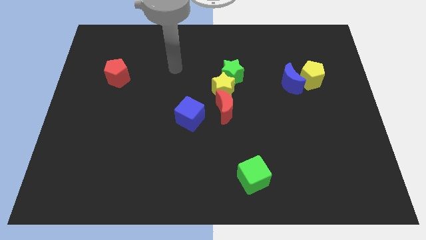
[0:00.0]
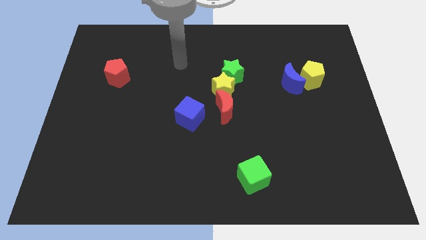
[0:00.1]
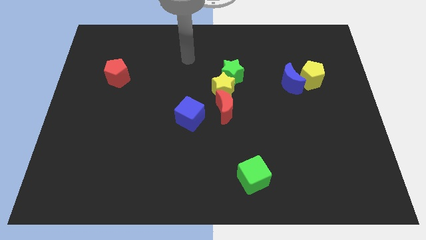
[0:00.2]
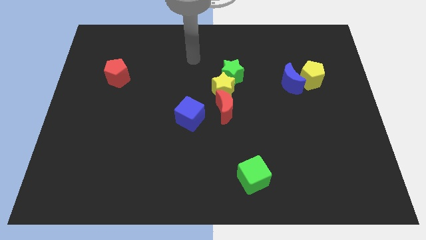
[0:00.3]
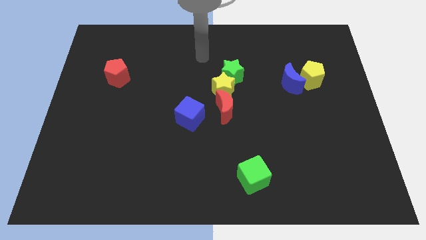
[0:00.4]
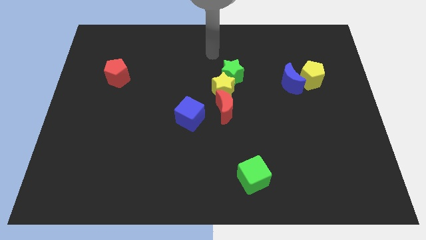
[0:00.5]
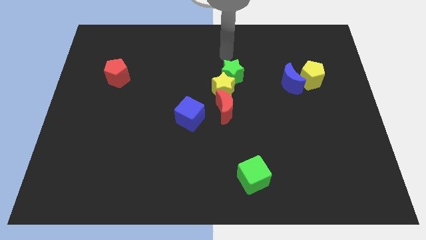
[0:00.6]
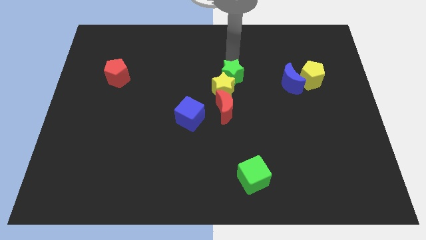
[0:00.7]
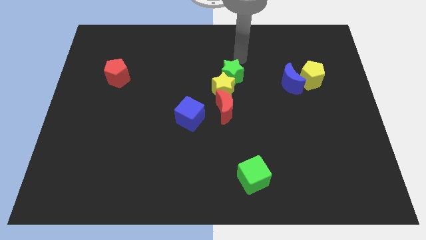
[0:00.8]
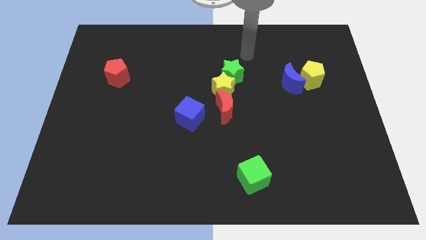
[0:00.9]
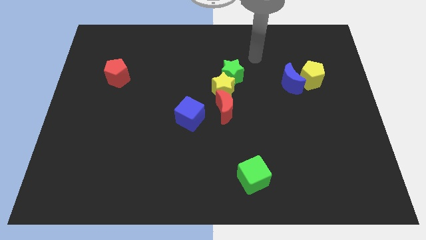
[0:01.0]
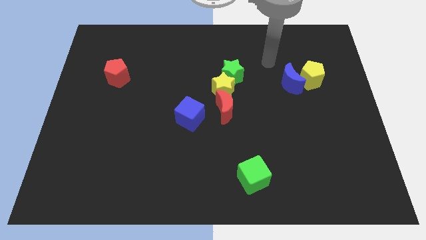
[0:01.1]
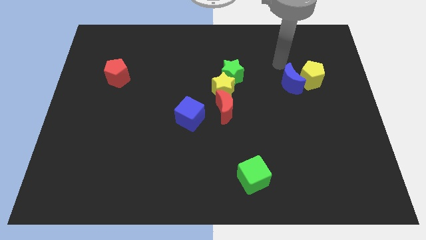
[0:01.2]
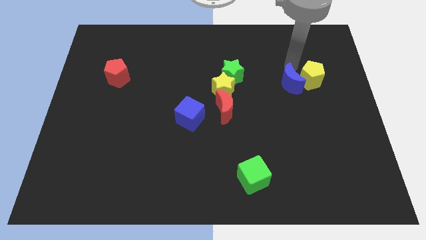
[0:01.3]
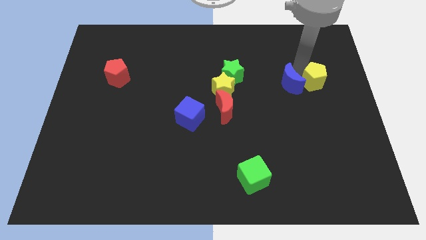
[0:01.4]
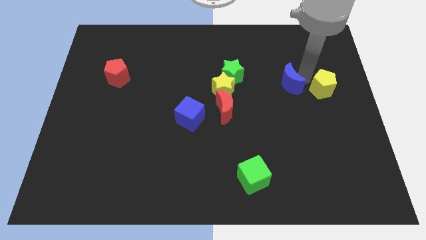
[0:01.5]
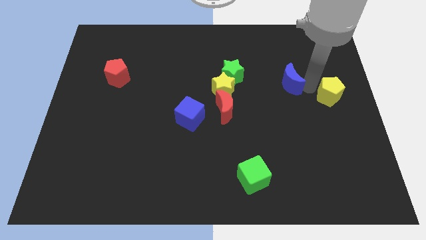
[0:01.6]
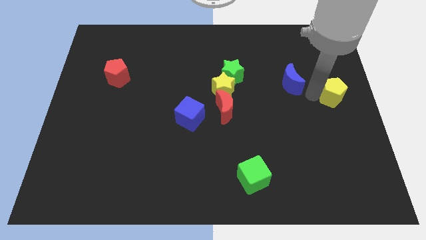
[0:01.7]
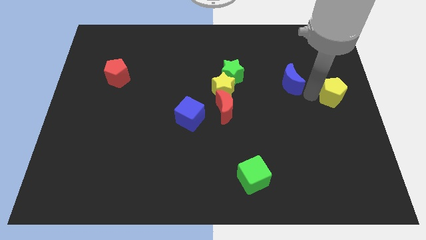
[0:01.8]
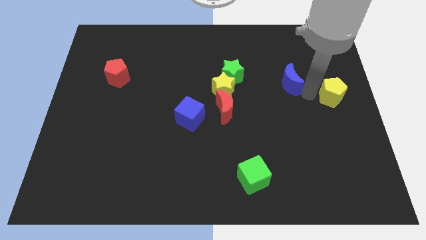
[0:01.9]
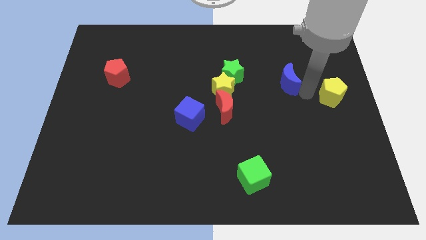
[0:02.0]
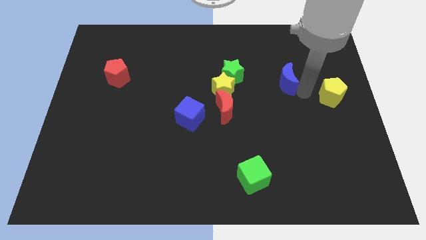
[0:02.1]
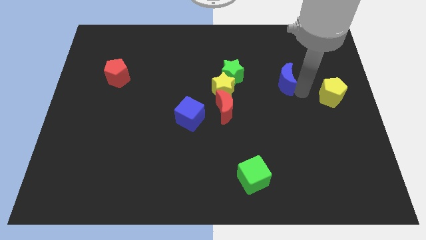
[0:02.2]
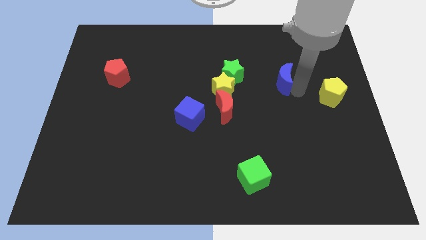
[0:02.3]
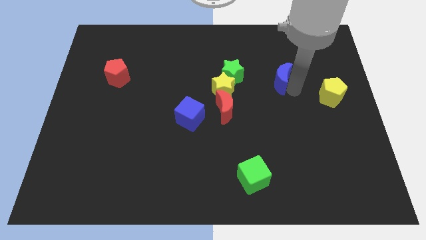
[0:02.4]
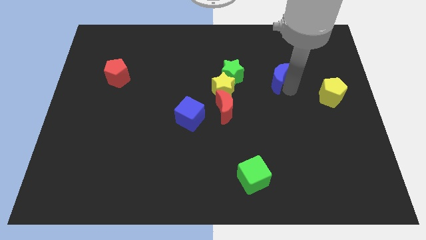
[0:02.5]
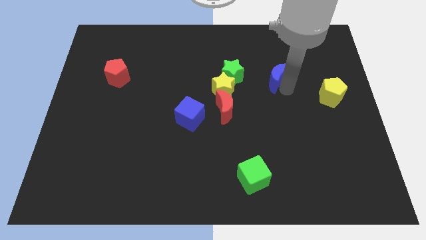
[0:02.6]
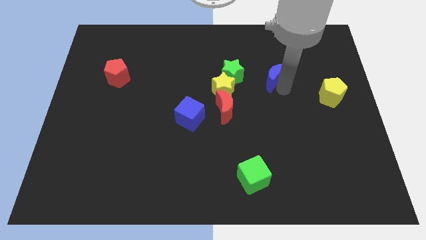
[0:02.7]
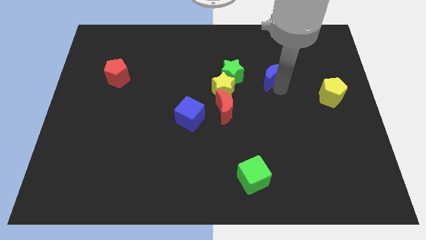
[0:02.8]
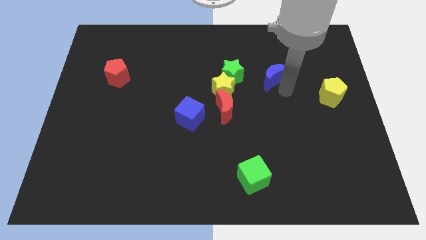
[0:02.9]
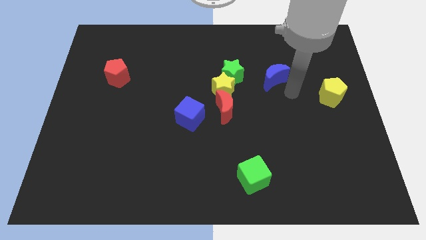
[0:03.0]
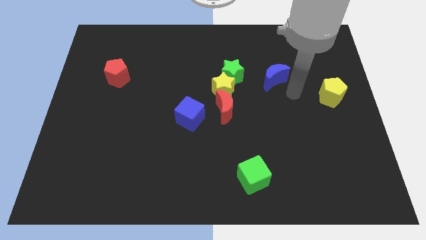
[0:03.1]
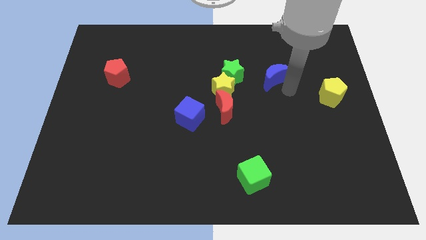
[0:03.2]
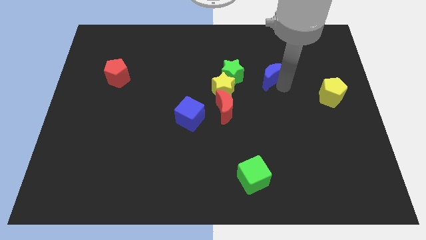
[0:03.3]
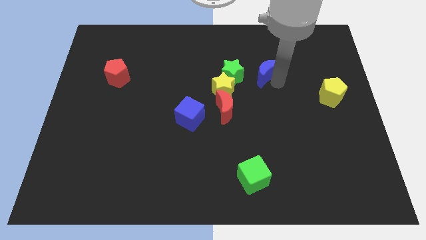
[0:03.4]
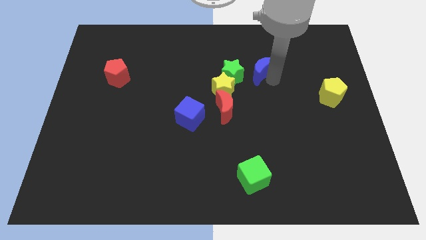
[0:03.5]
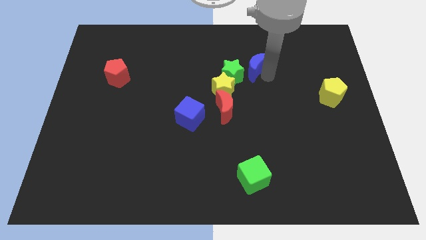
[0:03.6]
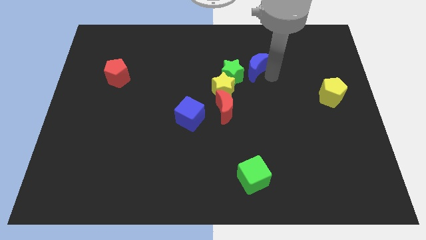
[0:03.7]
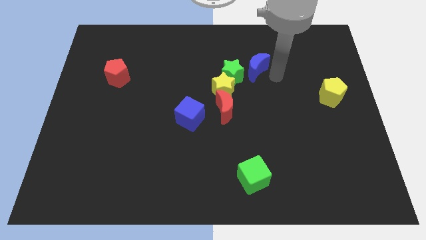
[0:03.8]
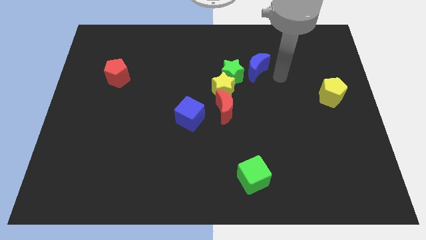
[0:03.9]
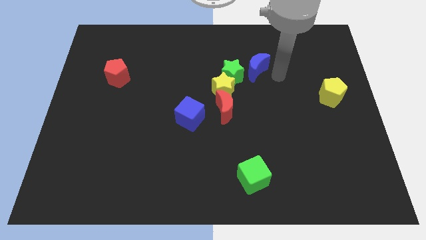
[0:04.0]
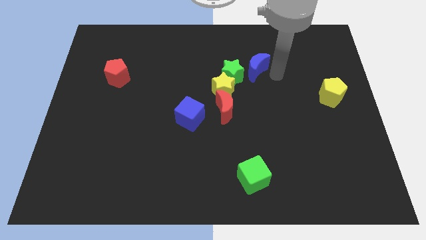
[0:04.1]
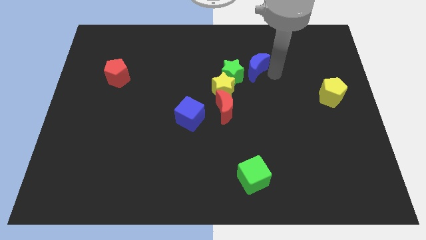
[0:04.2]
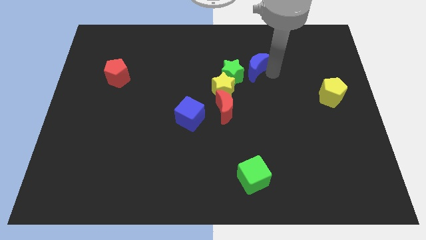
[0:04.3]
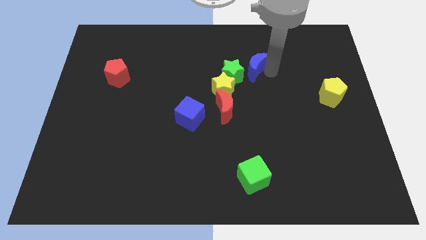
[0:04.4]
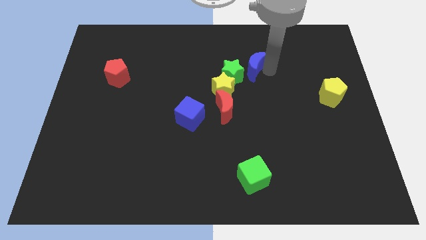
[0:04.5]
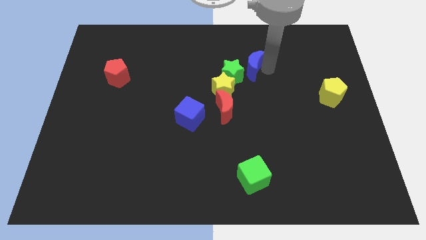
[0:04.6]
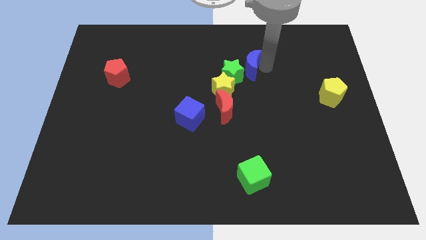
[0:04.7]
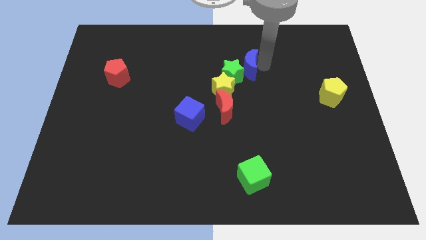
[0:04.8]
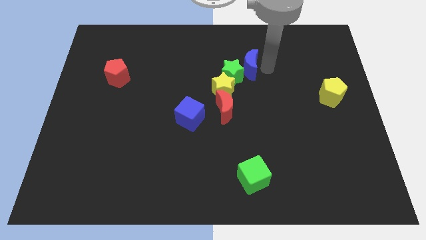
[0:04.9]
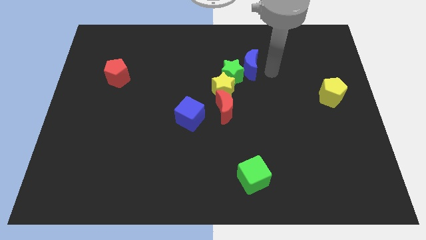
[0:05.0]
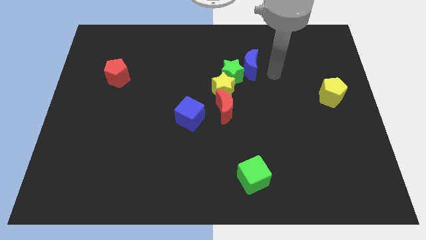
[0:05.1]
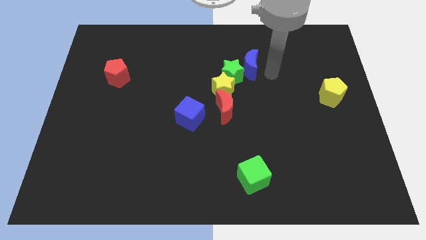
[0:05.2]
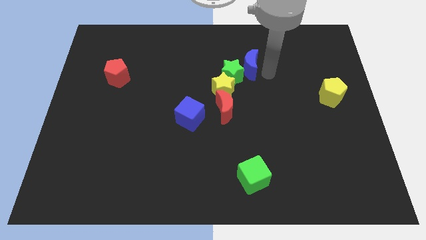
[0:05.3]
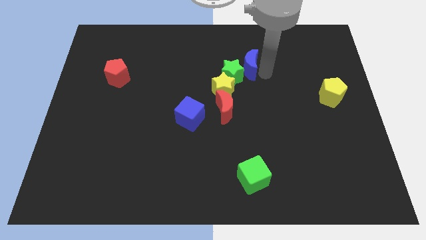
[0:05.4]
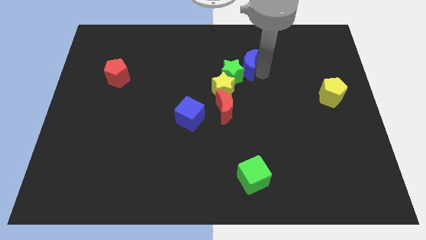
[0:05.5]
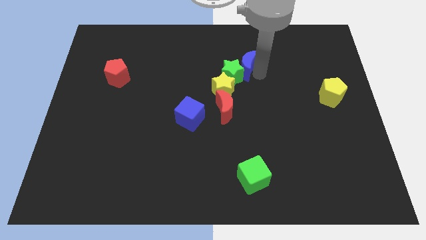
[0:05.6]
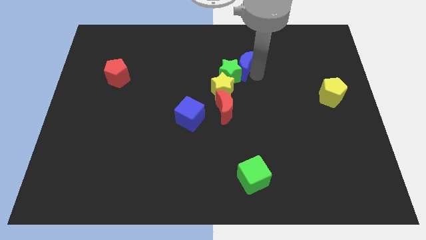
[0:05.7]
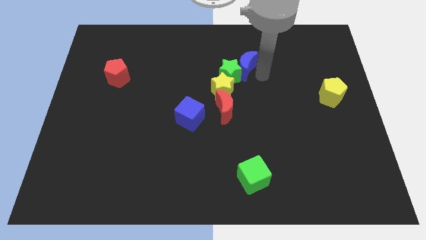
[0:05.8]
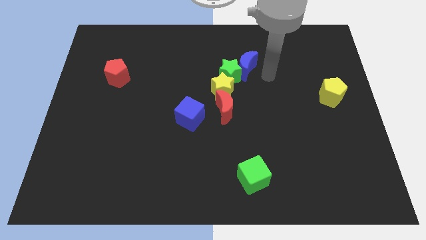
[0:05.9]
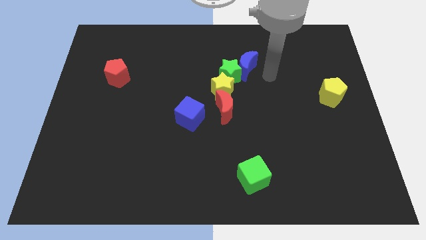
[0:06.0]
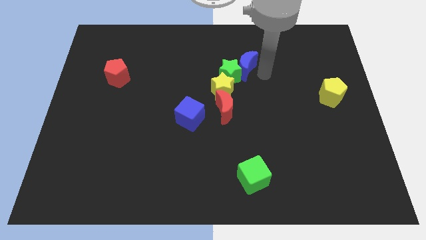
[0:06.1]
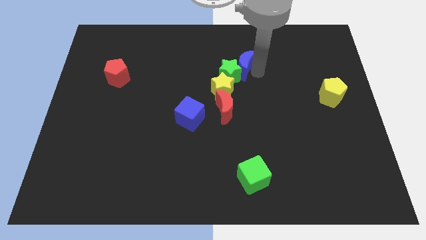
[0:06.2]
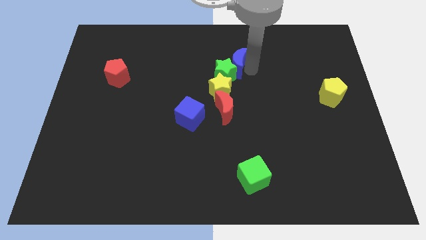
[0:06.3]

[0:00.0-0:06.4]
slide the blue moon above the yellow star

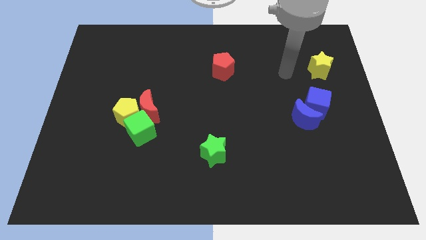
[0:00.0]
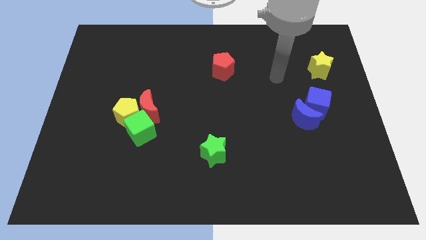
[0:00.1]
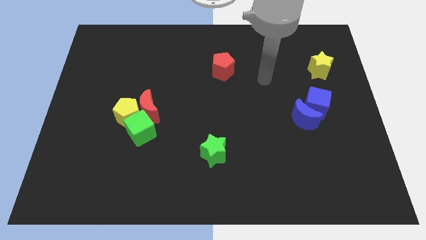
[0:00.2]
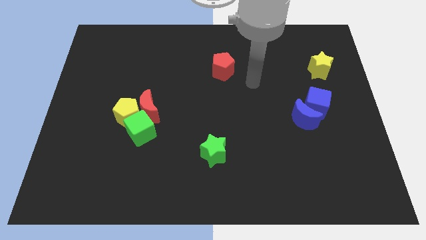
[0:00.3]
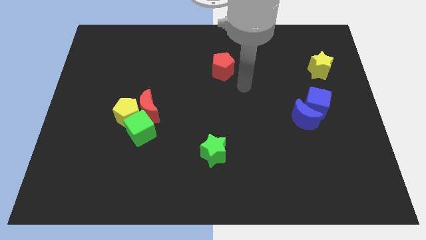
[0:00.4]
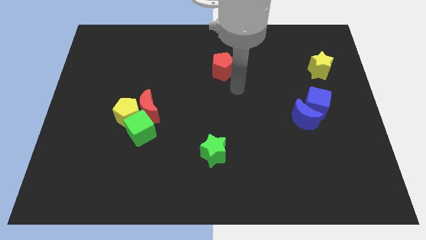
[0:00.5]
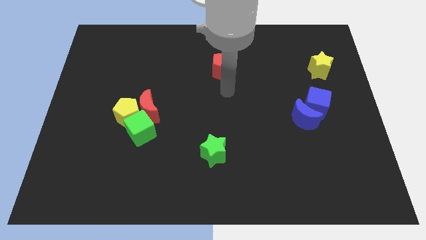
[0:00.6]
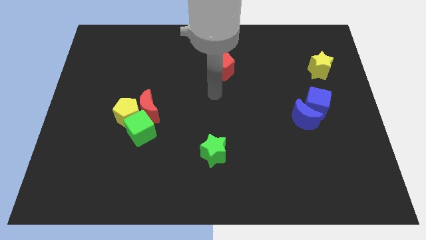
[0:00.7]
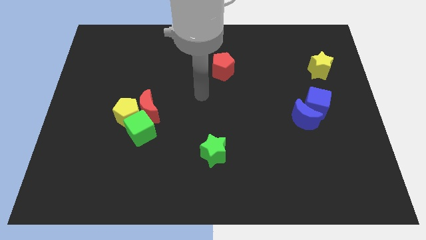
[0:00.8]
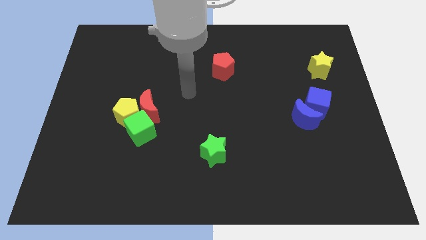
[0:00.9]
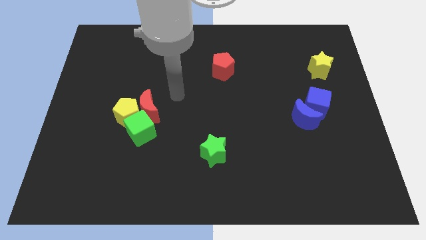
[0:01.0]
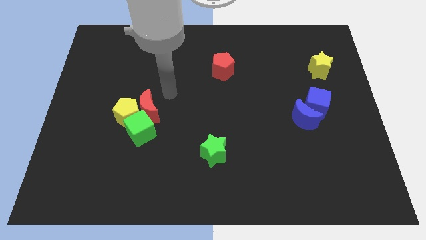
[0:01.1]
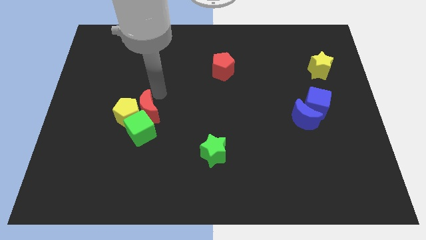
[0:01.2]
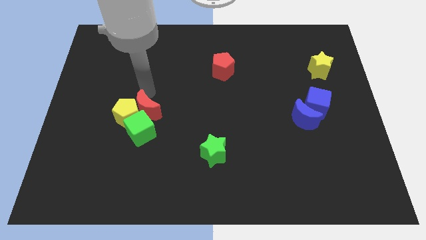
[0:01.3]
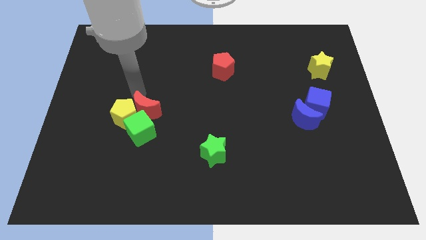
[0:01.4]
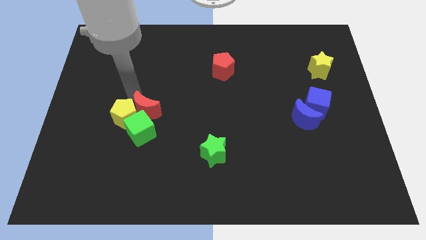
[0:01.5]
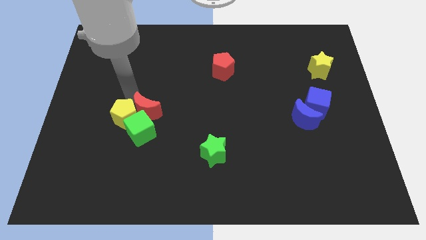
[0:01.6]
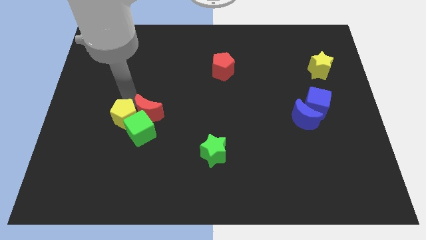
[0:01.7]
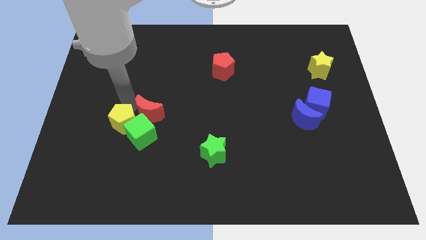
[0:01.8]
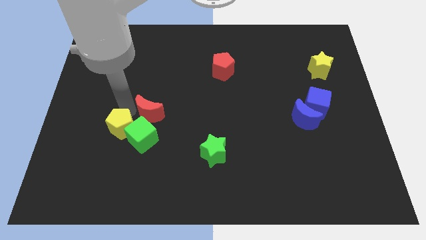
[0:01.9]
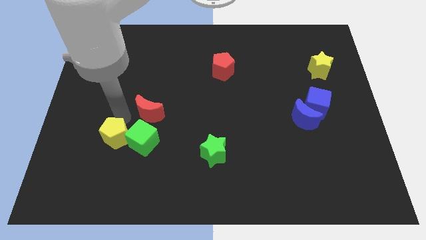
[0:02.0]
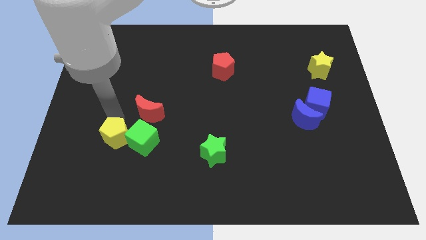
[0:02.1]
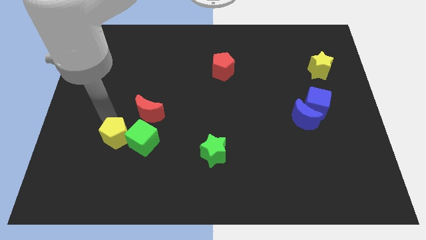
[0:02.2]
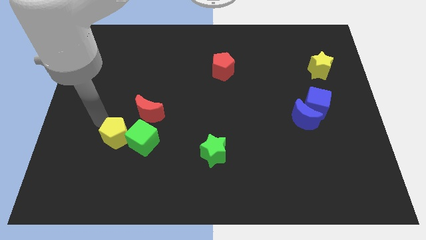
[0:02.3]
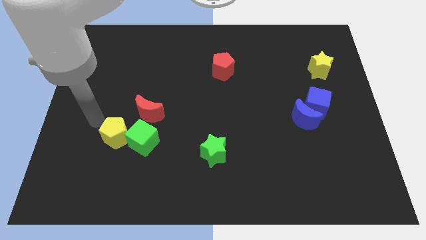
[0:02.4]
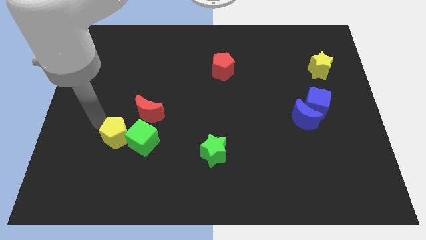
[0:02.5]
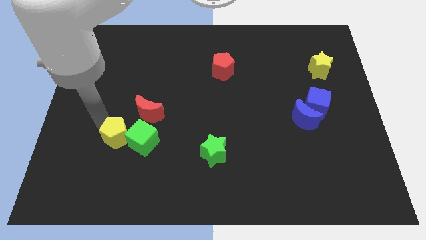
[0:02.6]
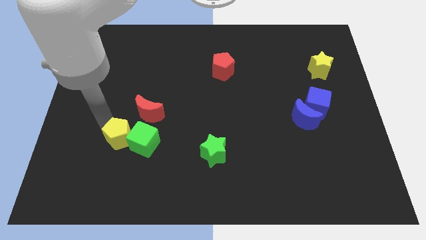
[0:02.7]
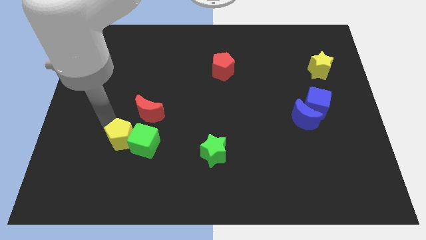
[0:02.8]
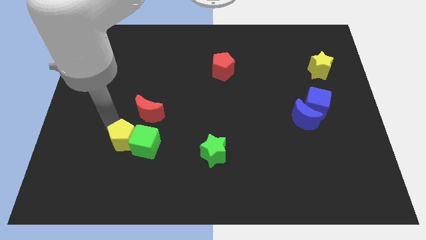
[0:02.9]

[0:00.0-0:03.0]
push the yellow pentagon to the bottom side of the red moon
